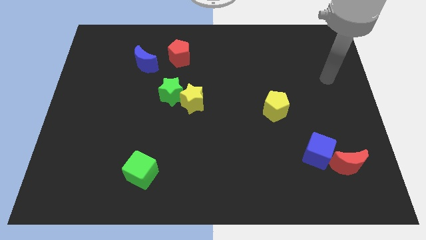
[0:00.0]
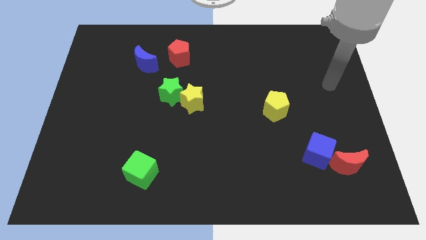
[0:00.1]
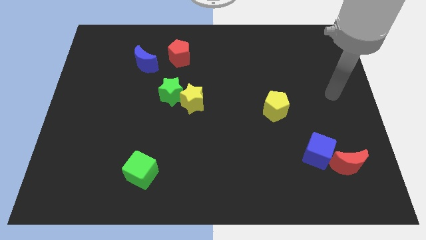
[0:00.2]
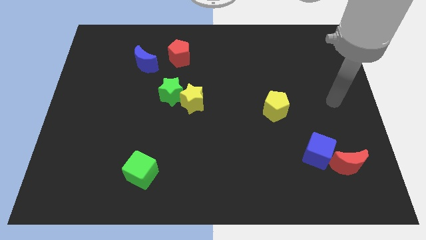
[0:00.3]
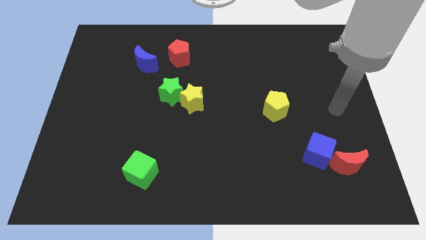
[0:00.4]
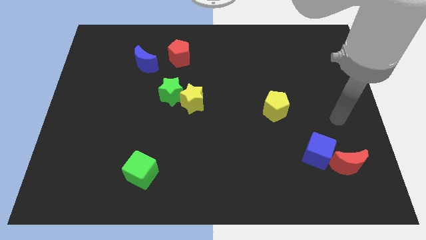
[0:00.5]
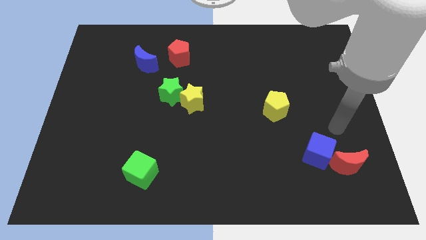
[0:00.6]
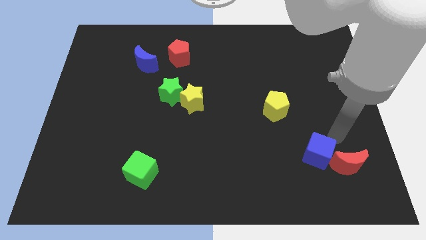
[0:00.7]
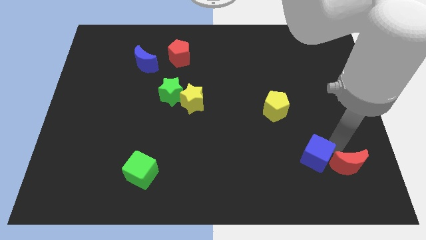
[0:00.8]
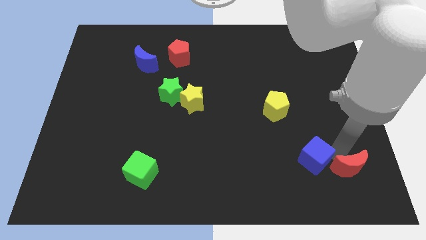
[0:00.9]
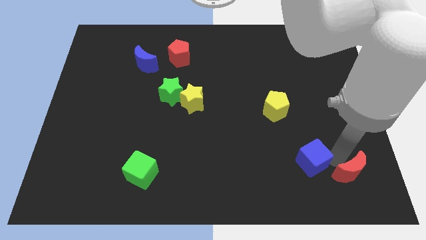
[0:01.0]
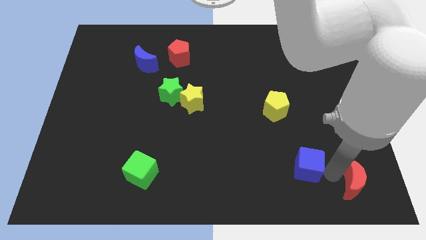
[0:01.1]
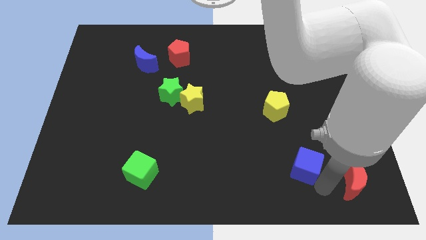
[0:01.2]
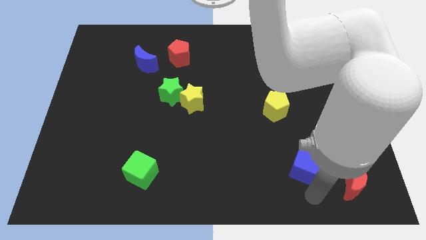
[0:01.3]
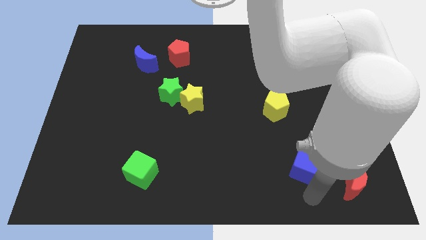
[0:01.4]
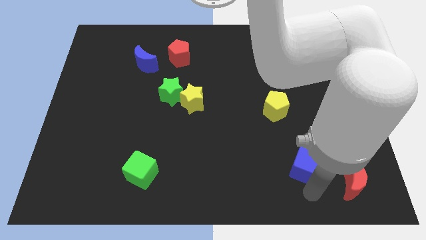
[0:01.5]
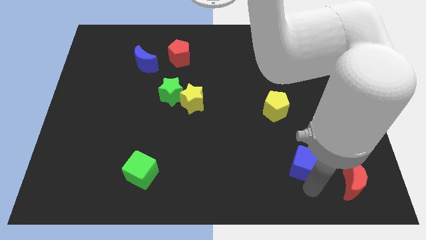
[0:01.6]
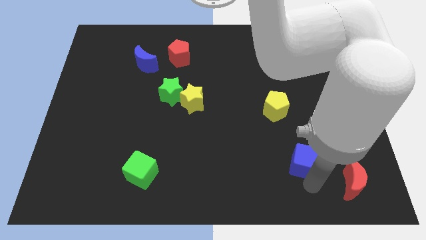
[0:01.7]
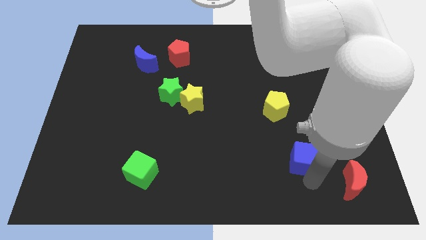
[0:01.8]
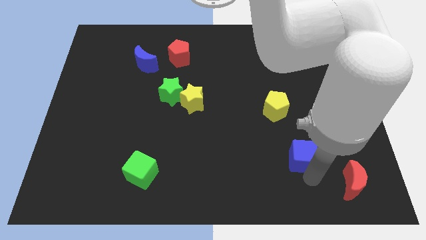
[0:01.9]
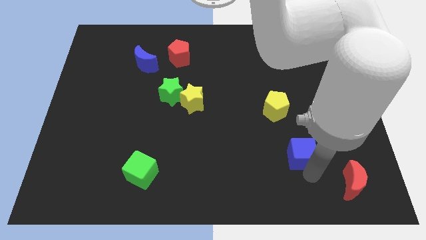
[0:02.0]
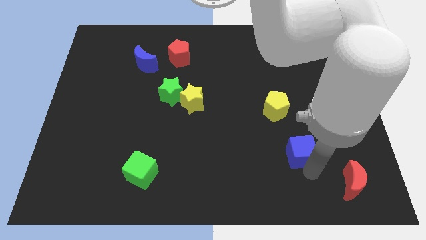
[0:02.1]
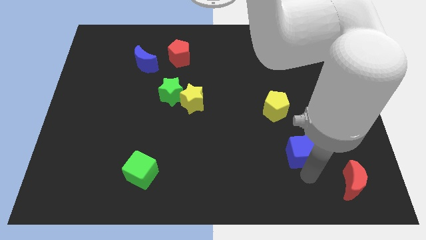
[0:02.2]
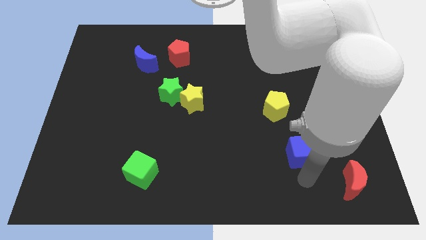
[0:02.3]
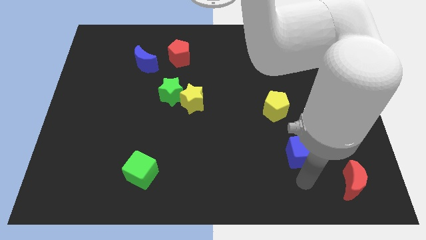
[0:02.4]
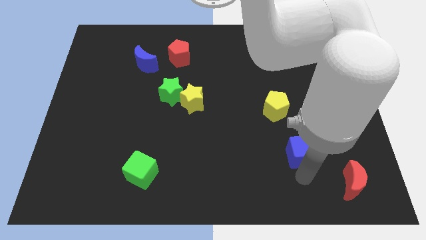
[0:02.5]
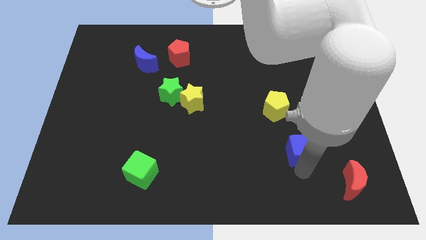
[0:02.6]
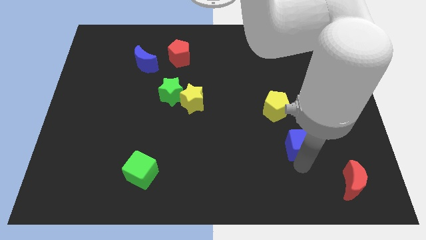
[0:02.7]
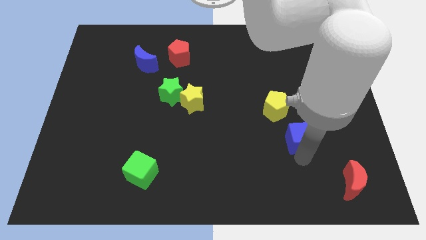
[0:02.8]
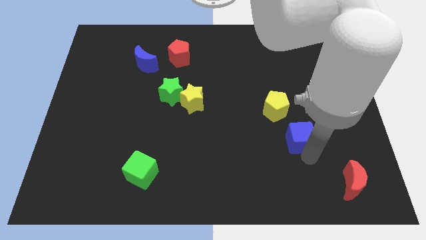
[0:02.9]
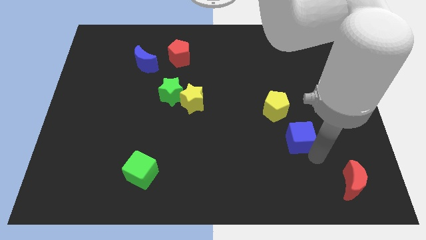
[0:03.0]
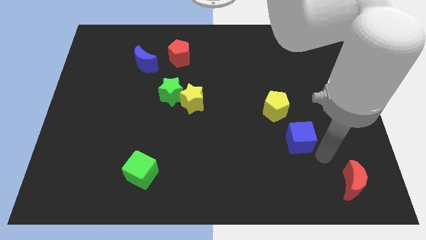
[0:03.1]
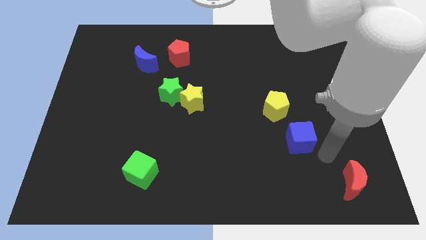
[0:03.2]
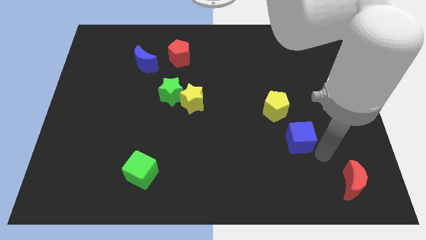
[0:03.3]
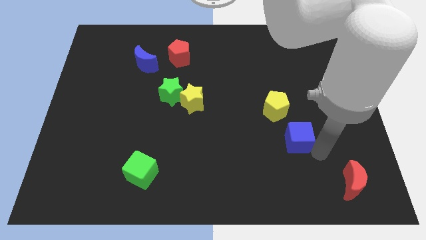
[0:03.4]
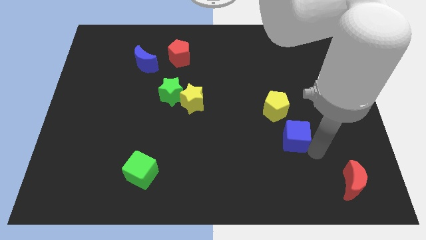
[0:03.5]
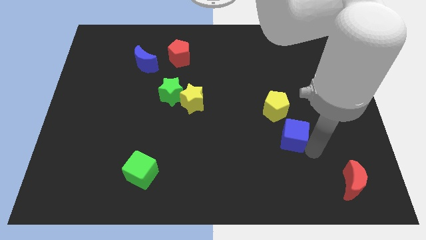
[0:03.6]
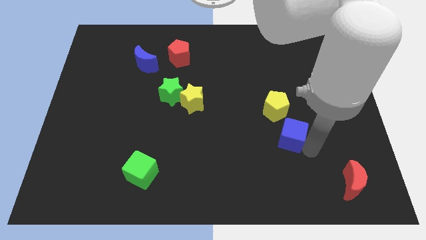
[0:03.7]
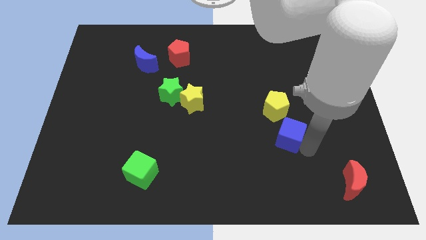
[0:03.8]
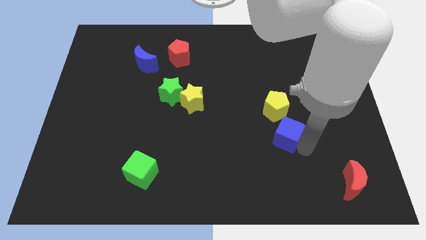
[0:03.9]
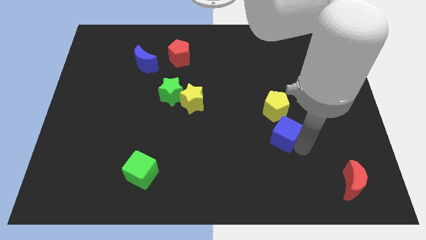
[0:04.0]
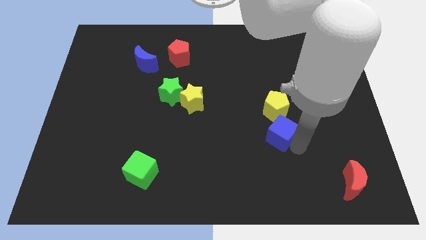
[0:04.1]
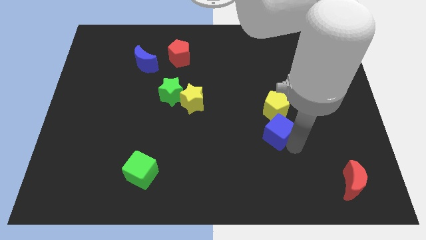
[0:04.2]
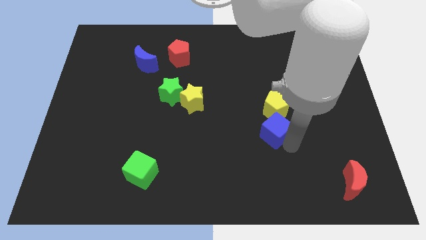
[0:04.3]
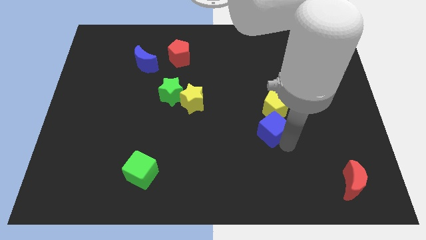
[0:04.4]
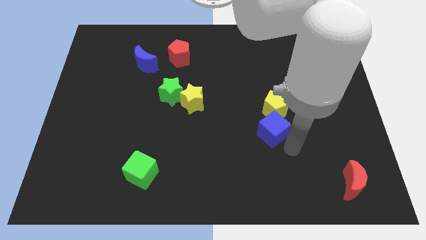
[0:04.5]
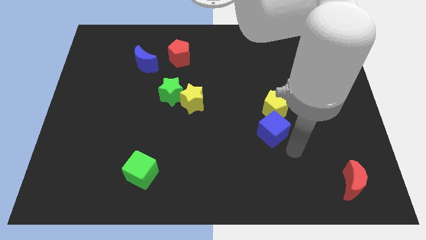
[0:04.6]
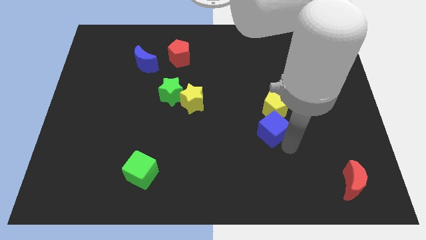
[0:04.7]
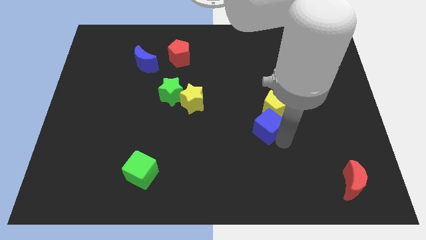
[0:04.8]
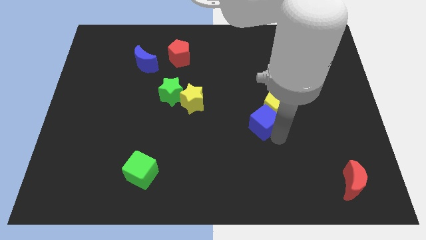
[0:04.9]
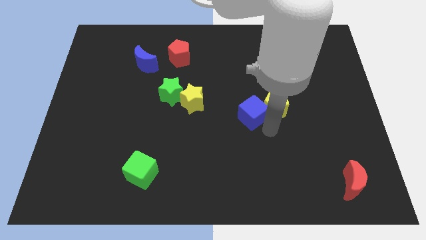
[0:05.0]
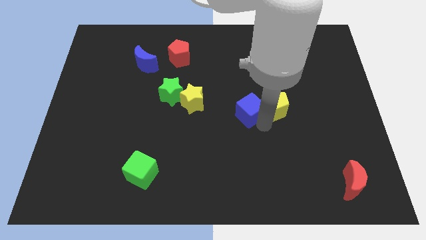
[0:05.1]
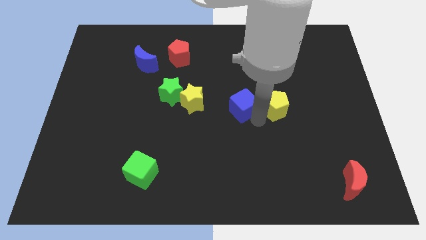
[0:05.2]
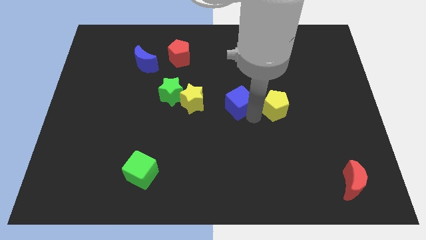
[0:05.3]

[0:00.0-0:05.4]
push the blue cube diagonally upwards and to the left

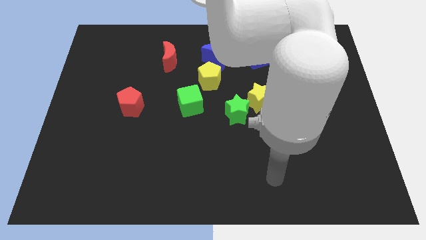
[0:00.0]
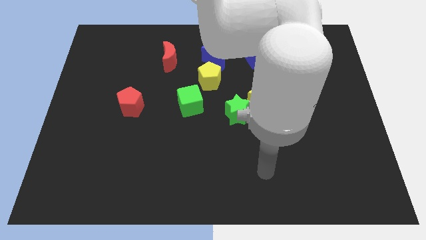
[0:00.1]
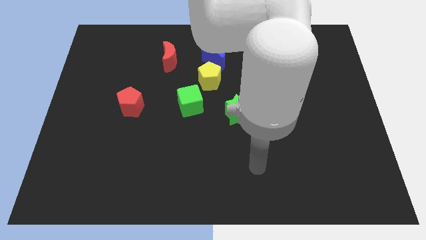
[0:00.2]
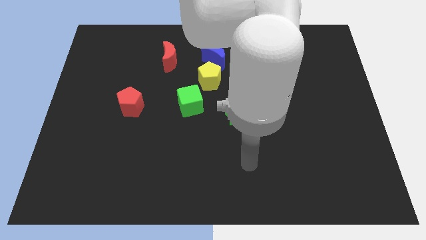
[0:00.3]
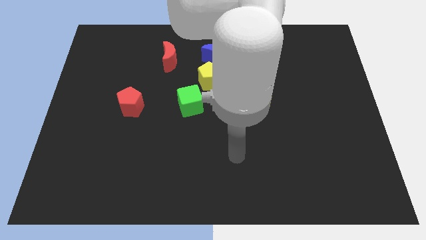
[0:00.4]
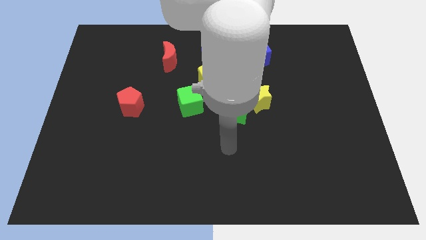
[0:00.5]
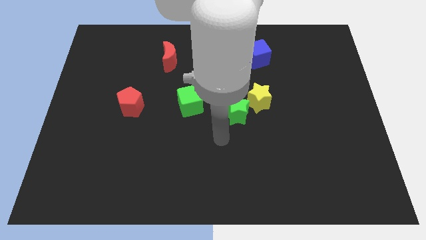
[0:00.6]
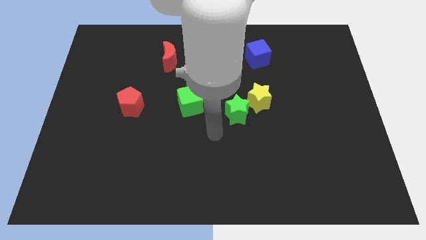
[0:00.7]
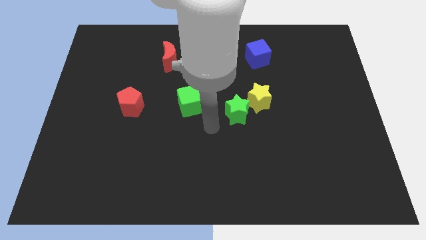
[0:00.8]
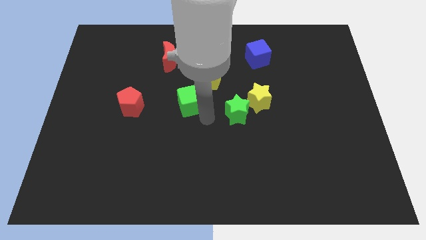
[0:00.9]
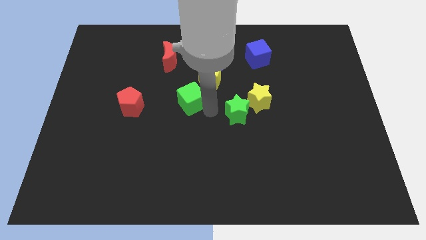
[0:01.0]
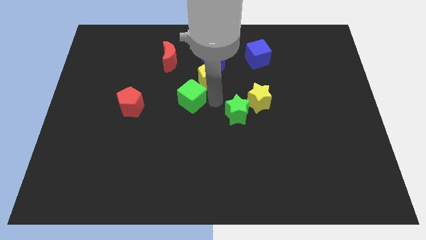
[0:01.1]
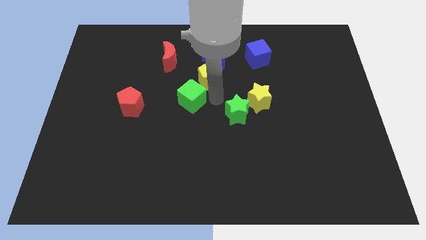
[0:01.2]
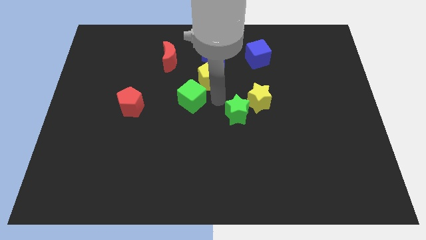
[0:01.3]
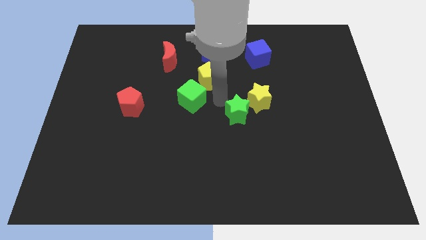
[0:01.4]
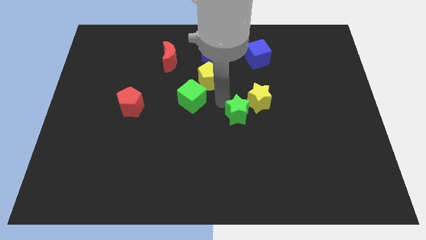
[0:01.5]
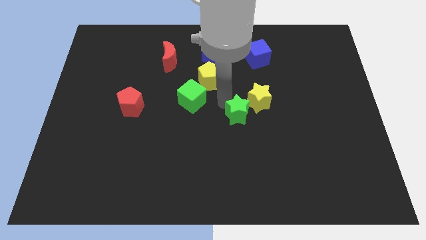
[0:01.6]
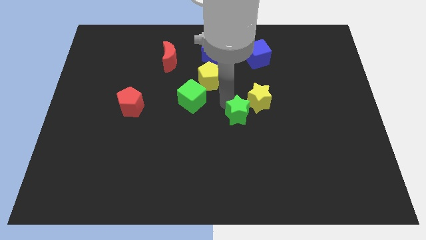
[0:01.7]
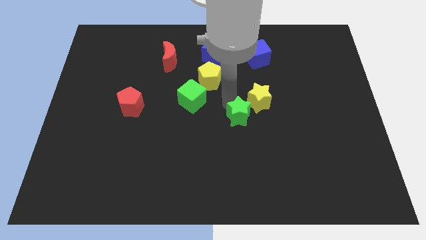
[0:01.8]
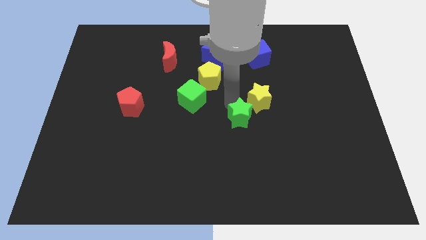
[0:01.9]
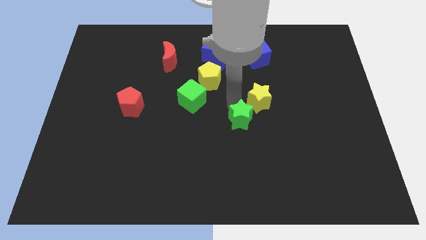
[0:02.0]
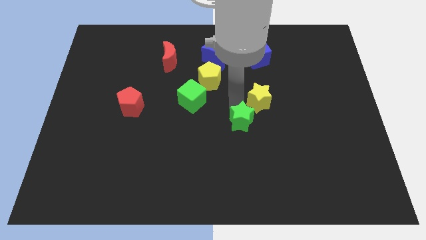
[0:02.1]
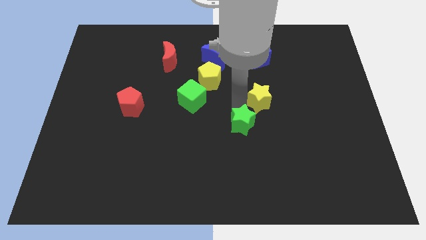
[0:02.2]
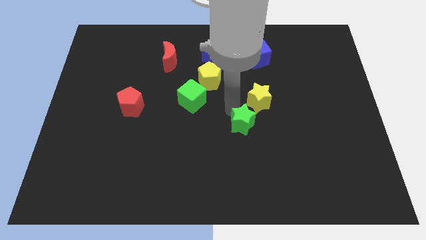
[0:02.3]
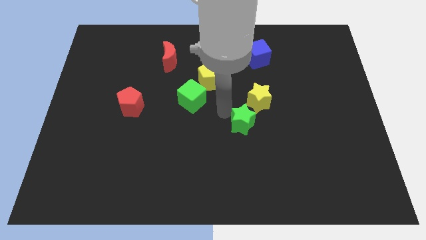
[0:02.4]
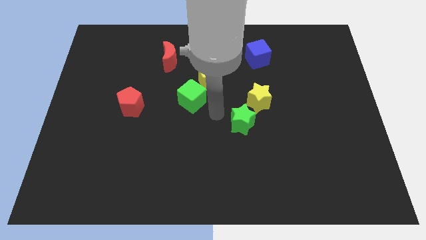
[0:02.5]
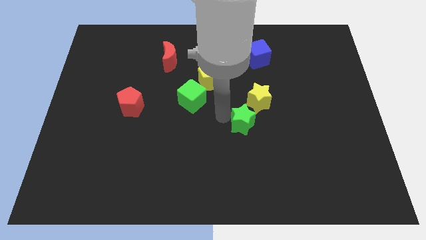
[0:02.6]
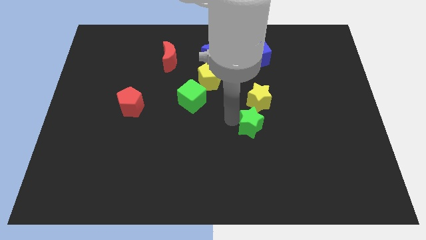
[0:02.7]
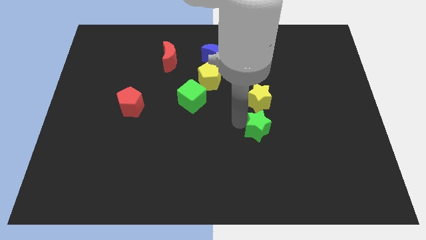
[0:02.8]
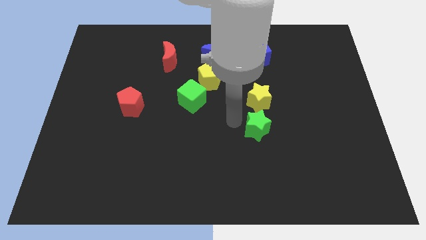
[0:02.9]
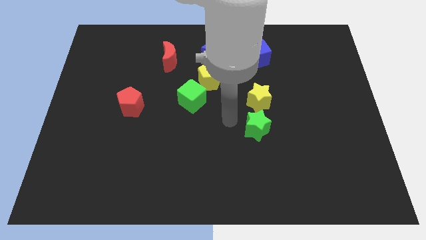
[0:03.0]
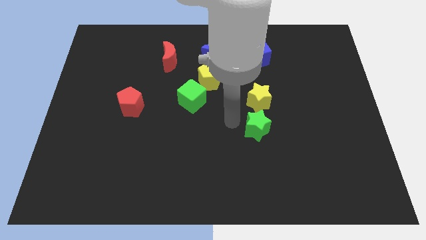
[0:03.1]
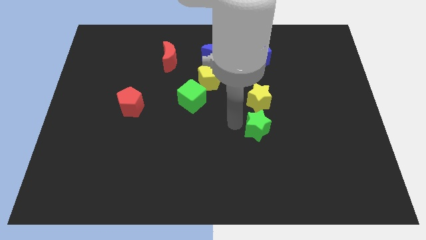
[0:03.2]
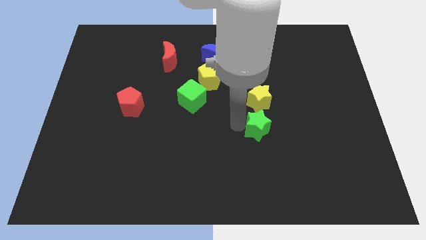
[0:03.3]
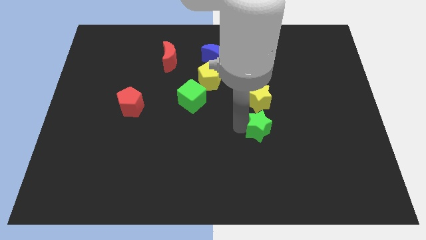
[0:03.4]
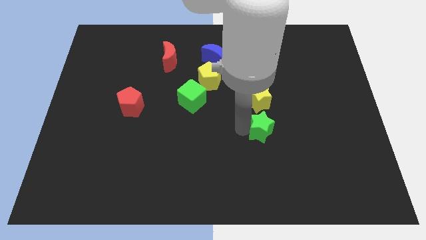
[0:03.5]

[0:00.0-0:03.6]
slightly push the green star down and right diagonally
